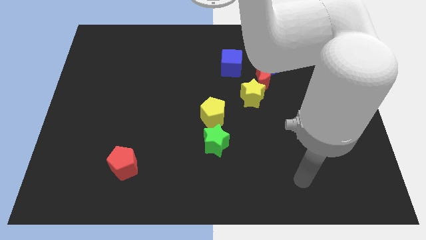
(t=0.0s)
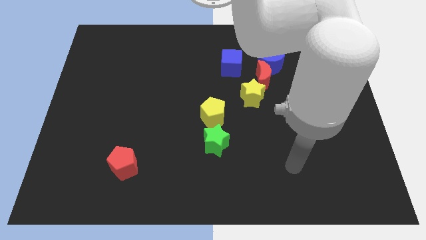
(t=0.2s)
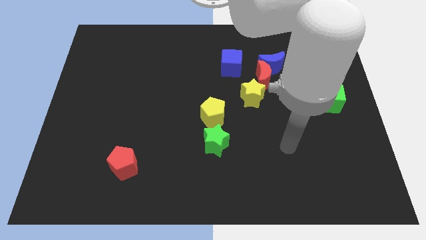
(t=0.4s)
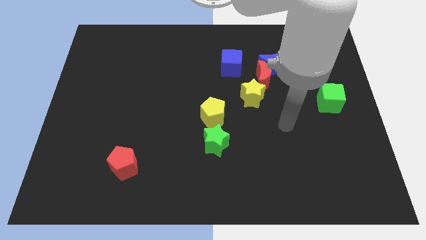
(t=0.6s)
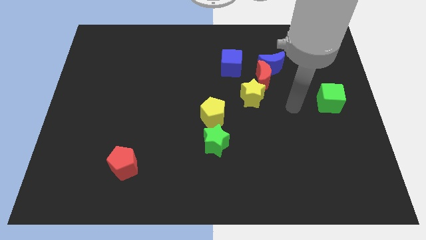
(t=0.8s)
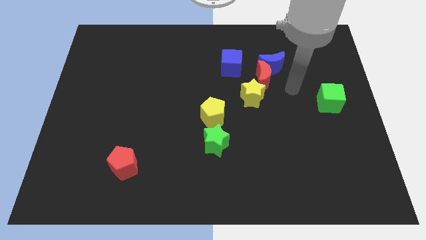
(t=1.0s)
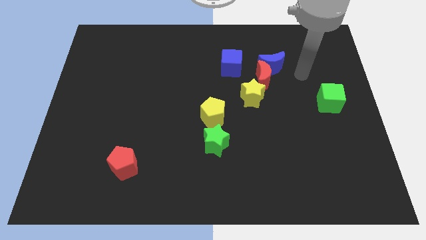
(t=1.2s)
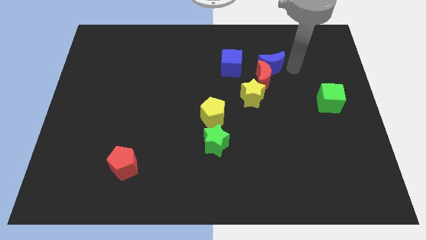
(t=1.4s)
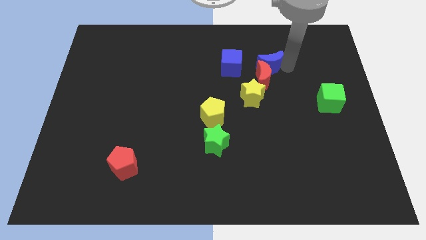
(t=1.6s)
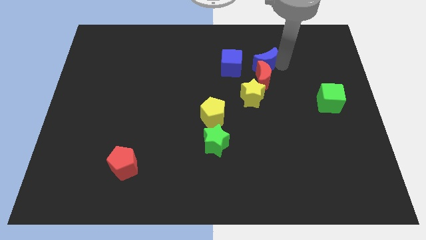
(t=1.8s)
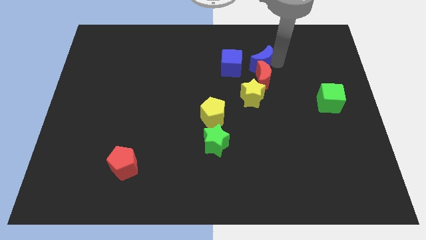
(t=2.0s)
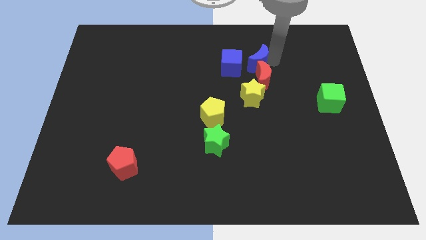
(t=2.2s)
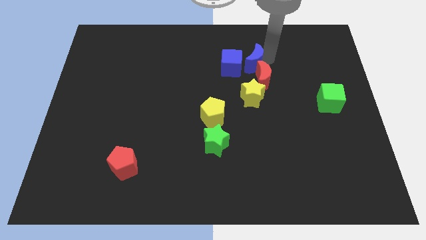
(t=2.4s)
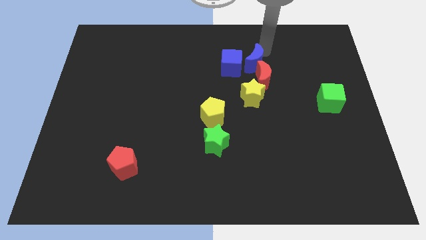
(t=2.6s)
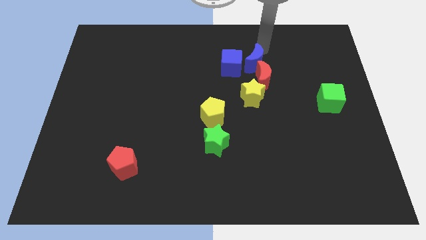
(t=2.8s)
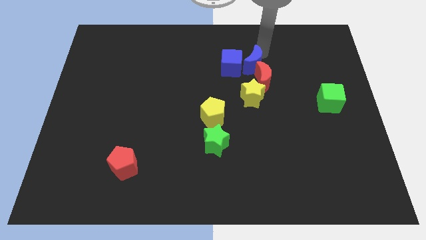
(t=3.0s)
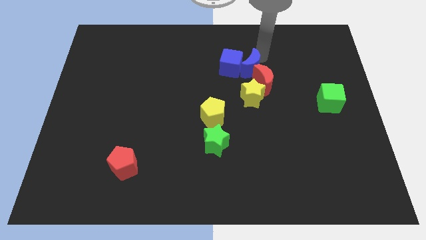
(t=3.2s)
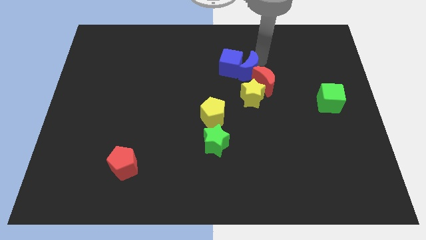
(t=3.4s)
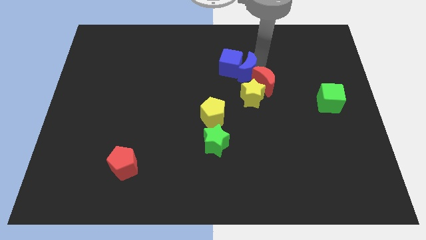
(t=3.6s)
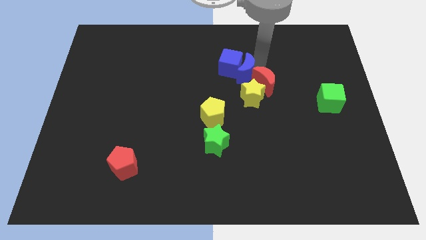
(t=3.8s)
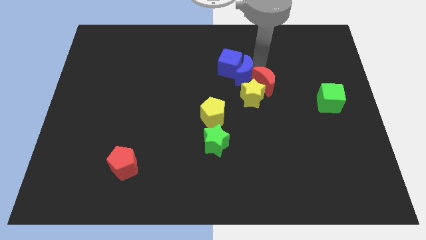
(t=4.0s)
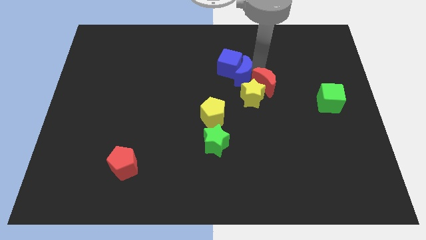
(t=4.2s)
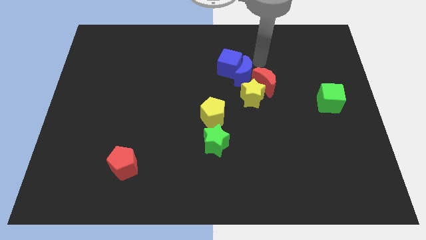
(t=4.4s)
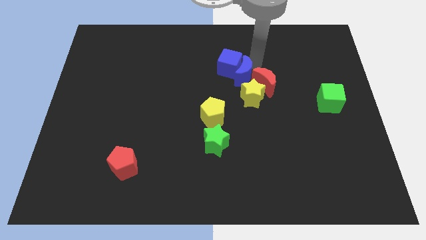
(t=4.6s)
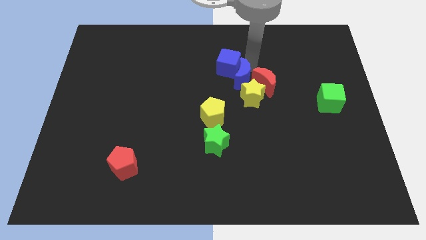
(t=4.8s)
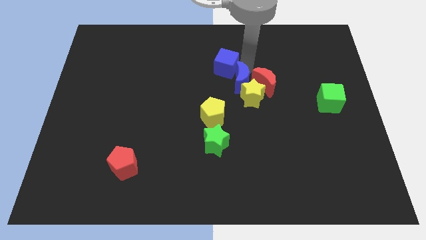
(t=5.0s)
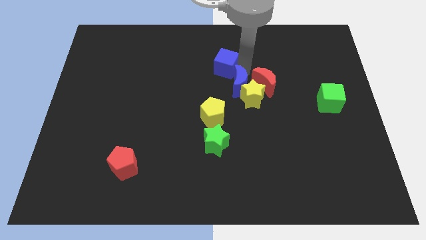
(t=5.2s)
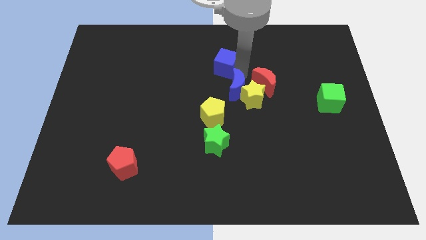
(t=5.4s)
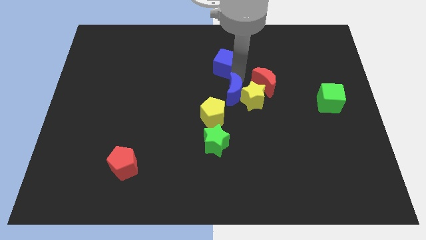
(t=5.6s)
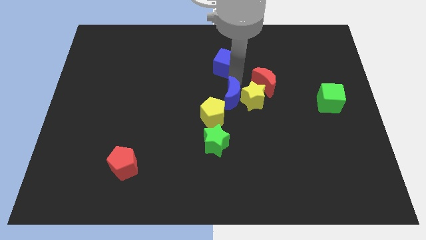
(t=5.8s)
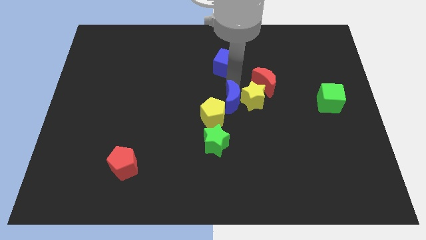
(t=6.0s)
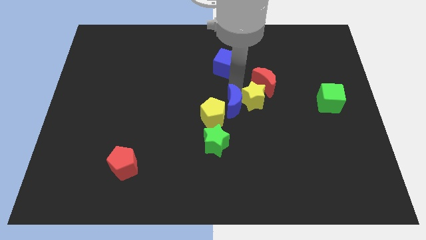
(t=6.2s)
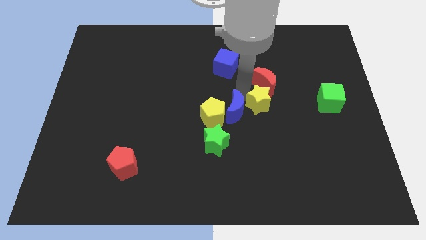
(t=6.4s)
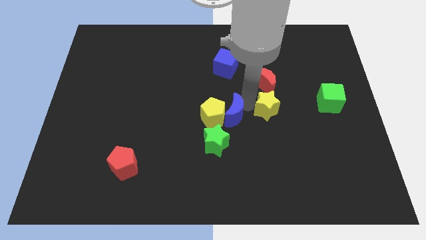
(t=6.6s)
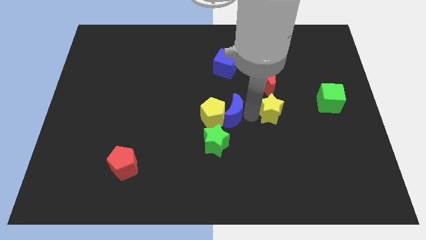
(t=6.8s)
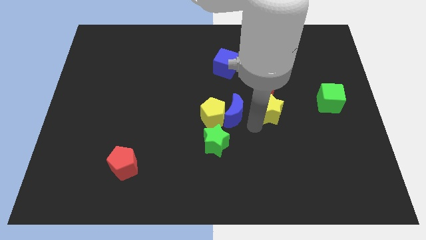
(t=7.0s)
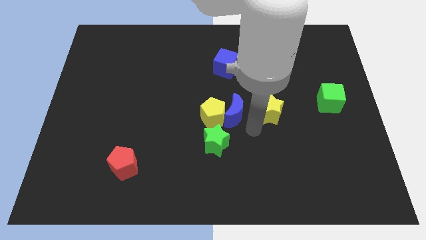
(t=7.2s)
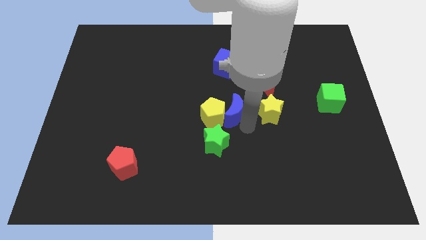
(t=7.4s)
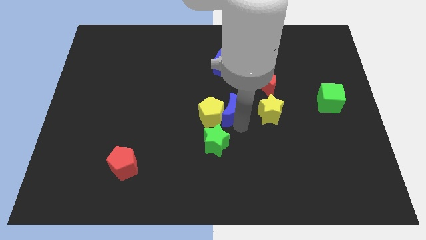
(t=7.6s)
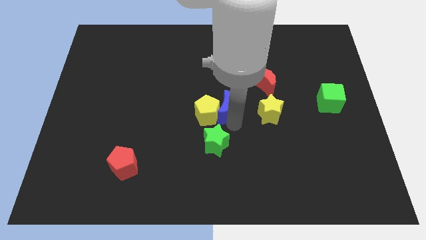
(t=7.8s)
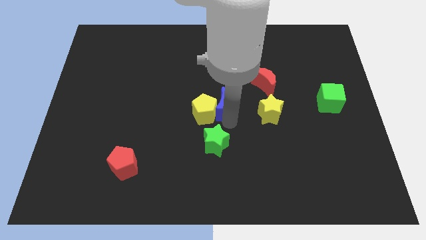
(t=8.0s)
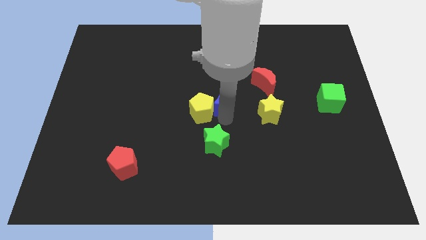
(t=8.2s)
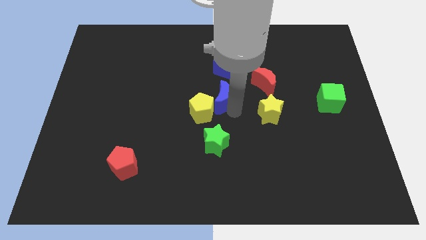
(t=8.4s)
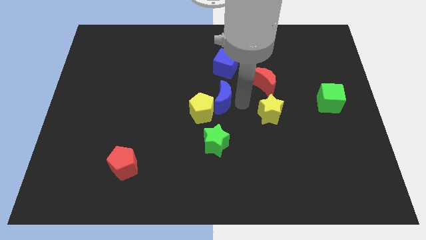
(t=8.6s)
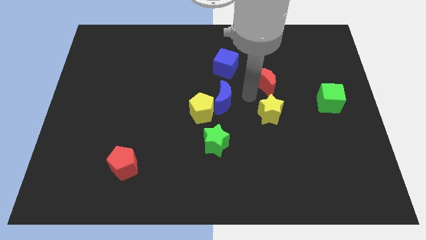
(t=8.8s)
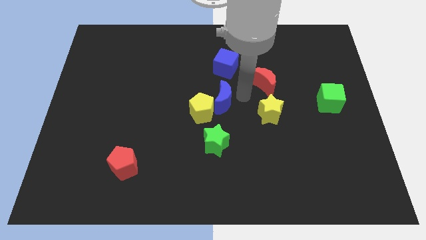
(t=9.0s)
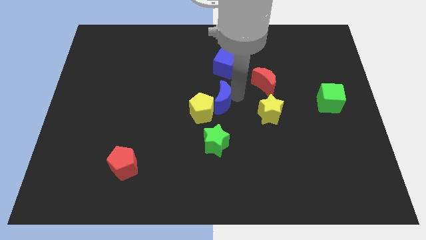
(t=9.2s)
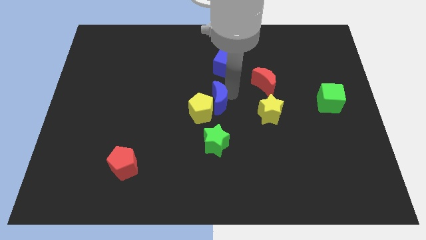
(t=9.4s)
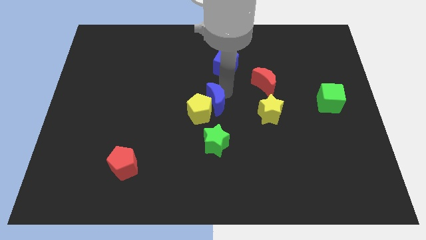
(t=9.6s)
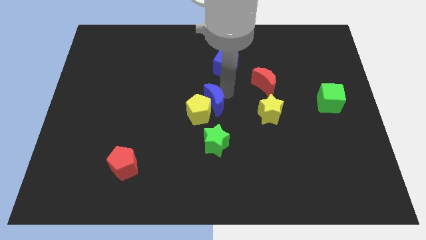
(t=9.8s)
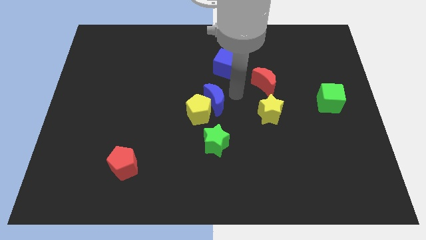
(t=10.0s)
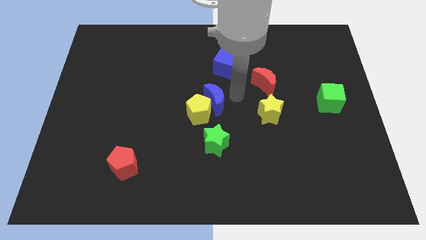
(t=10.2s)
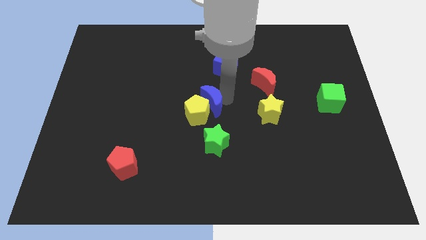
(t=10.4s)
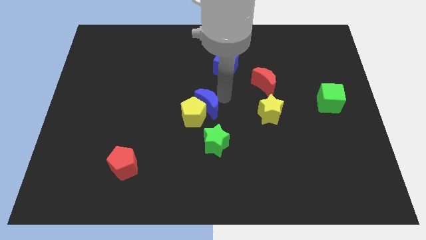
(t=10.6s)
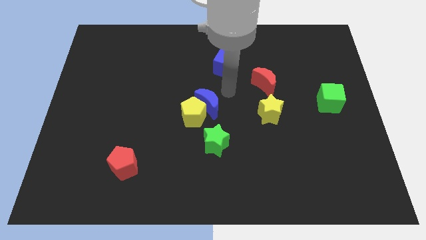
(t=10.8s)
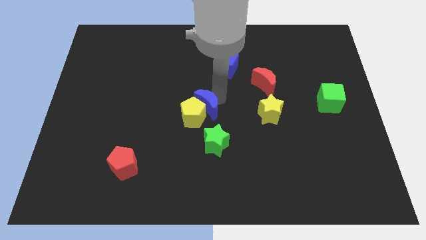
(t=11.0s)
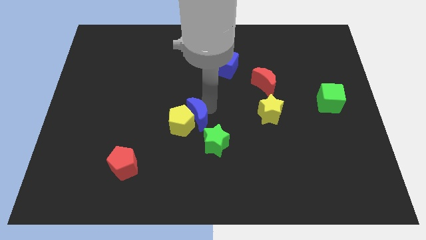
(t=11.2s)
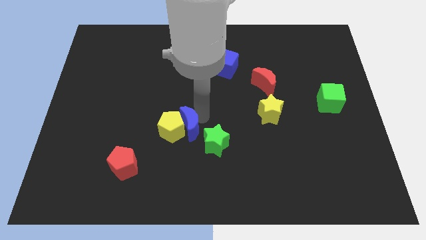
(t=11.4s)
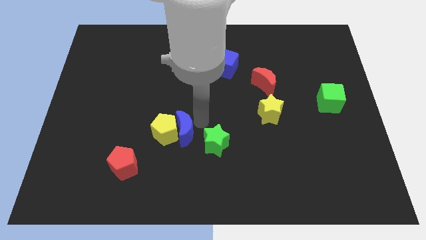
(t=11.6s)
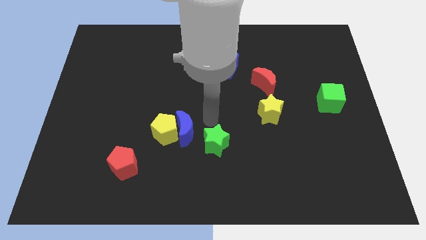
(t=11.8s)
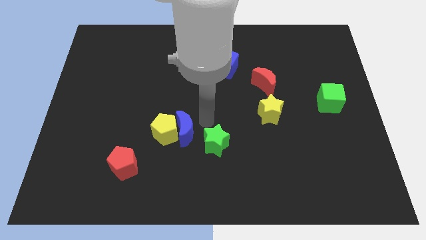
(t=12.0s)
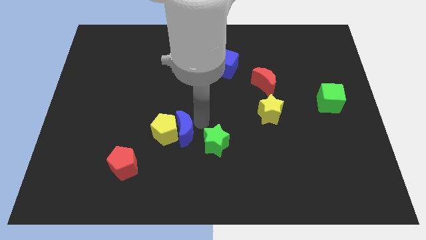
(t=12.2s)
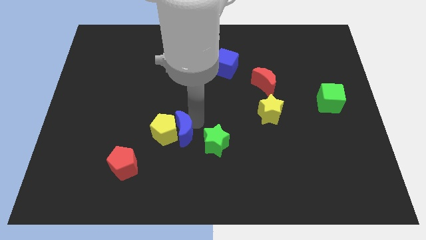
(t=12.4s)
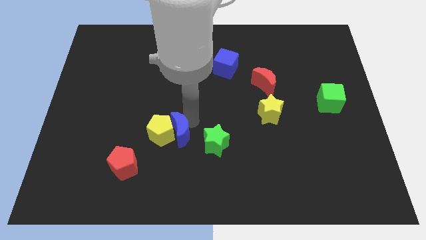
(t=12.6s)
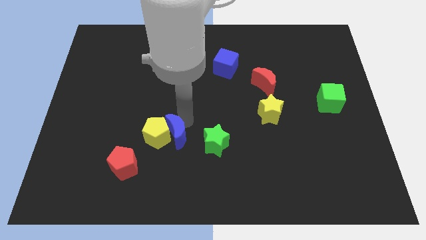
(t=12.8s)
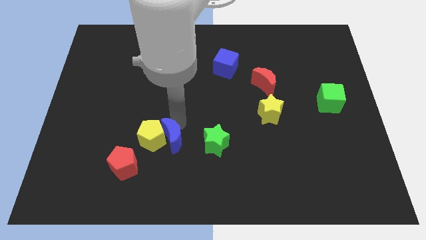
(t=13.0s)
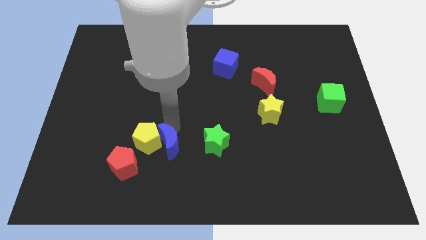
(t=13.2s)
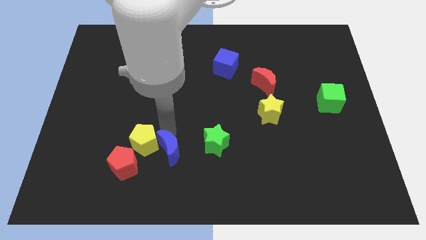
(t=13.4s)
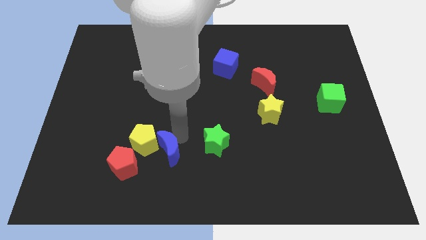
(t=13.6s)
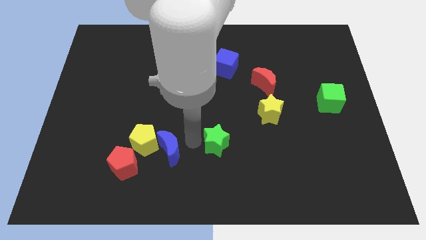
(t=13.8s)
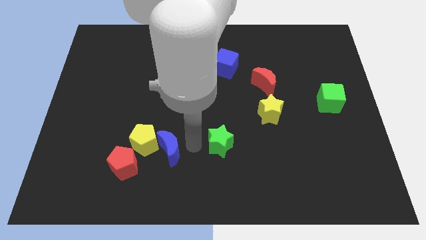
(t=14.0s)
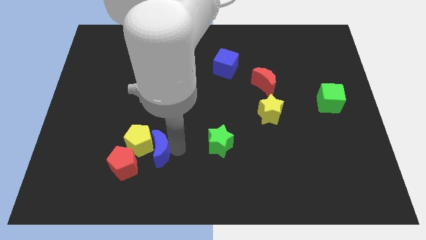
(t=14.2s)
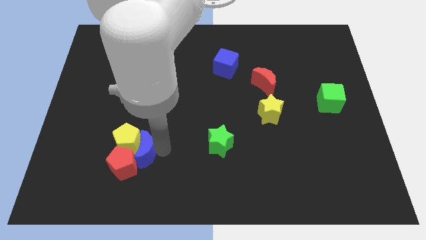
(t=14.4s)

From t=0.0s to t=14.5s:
move the blue moon close to the red pentagon

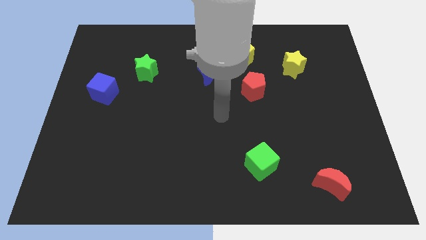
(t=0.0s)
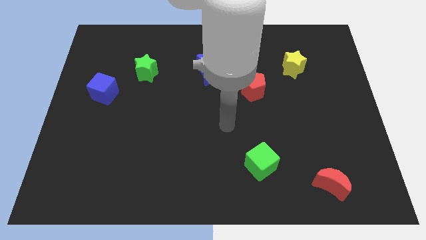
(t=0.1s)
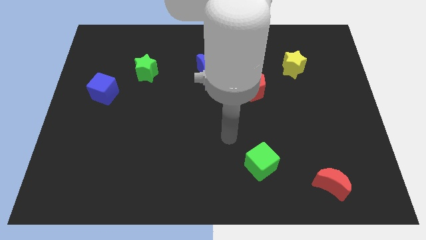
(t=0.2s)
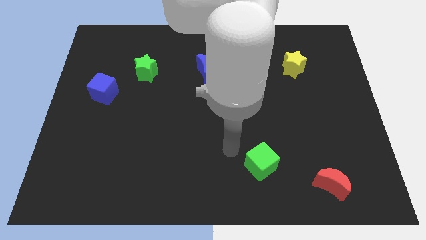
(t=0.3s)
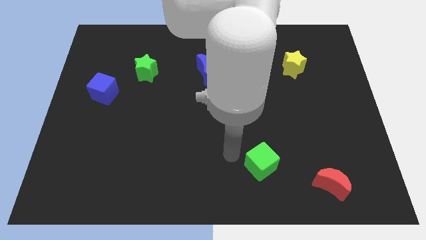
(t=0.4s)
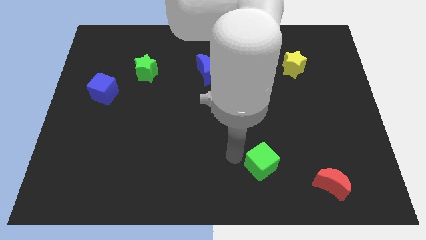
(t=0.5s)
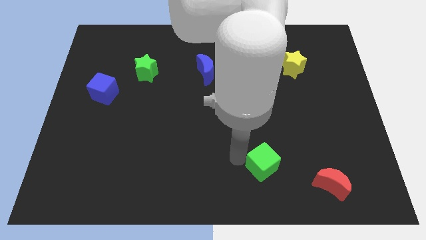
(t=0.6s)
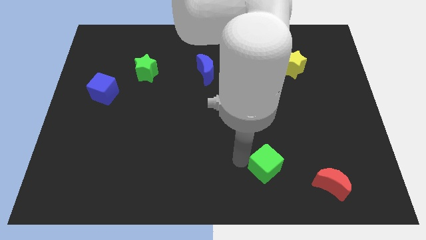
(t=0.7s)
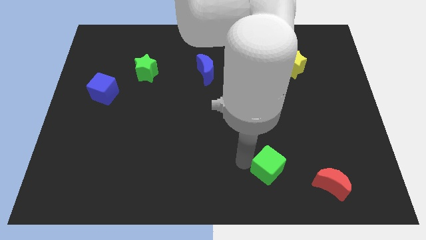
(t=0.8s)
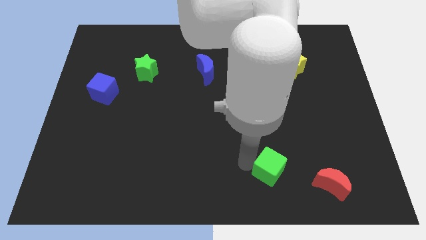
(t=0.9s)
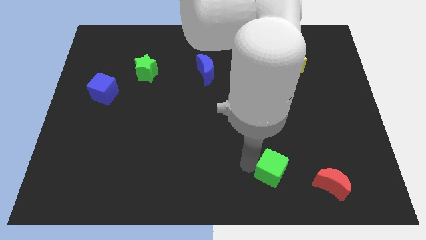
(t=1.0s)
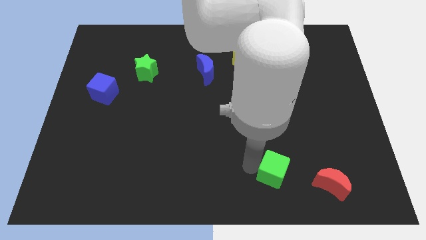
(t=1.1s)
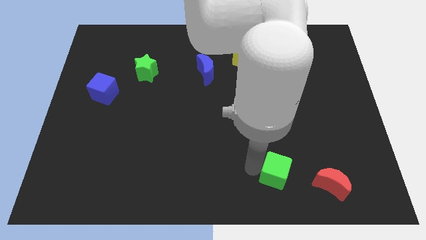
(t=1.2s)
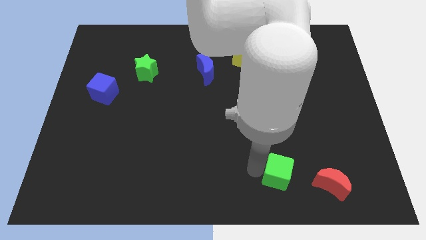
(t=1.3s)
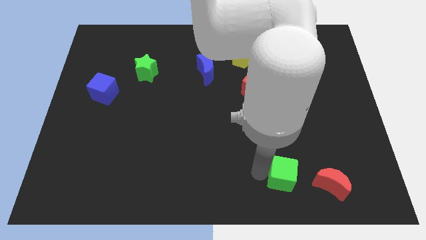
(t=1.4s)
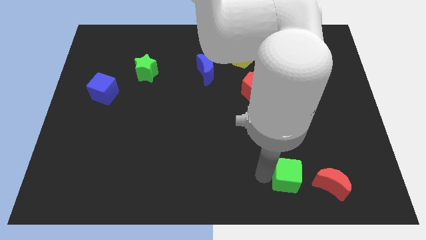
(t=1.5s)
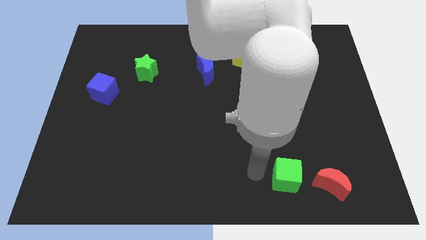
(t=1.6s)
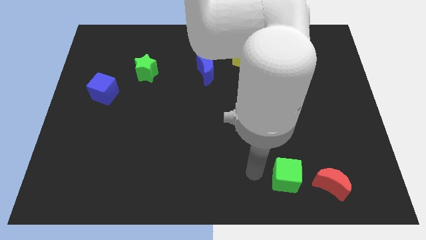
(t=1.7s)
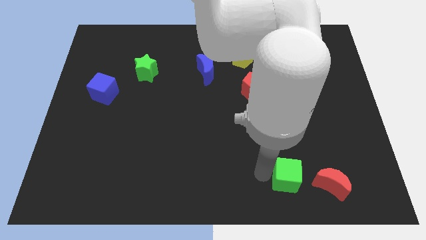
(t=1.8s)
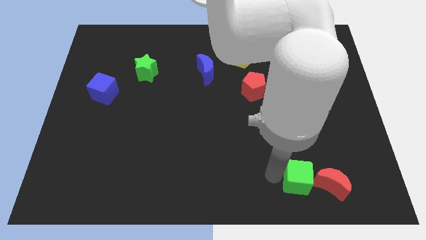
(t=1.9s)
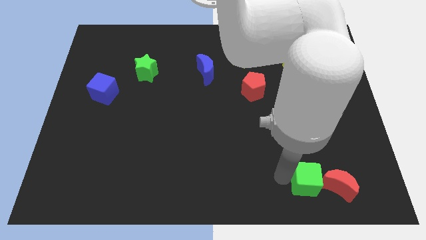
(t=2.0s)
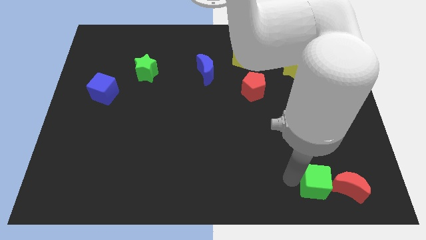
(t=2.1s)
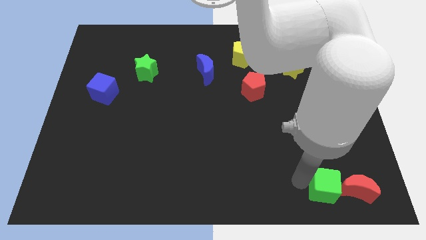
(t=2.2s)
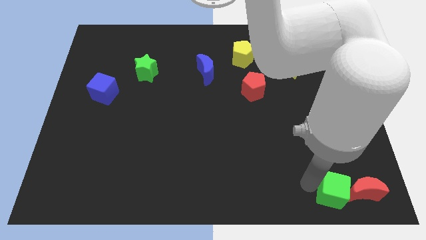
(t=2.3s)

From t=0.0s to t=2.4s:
slide the green cube close to the red moon
